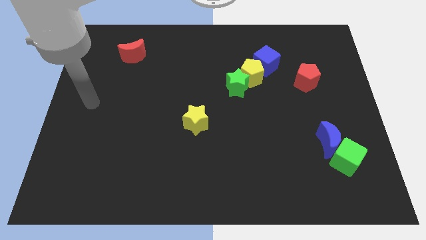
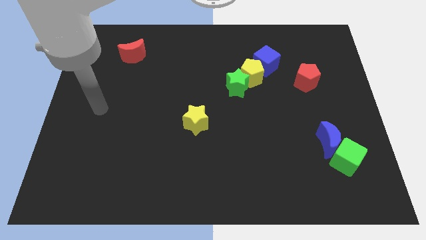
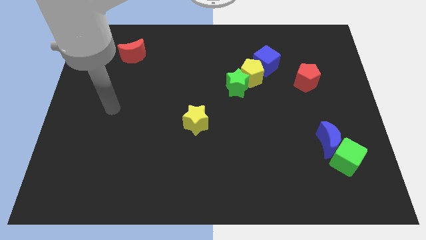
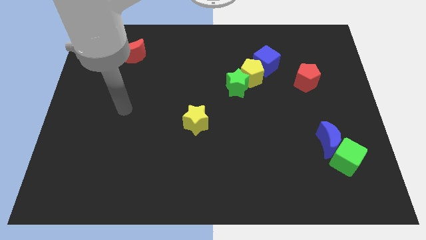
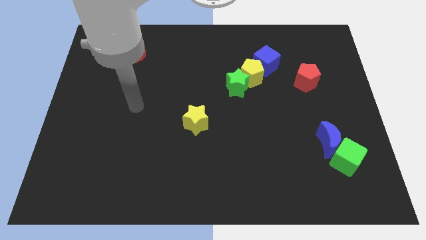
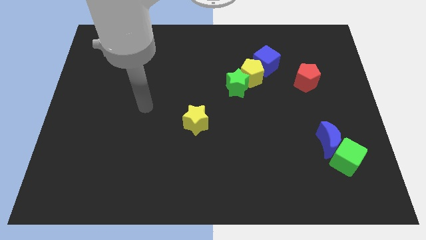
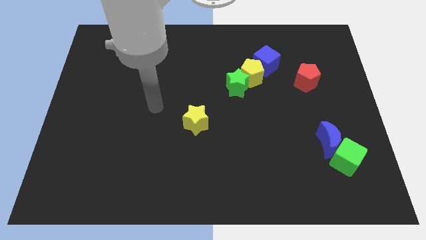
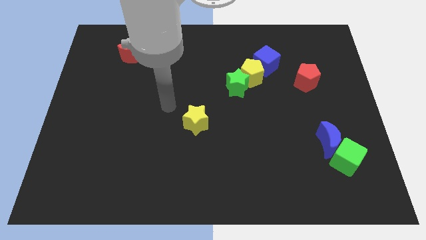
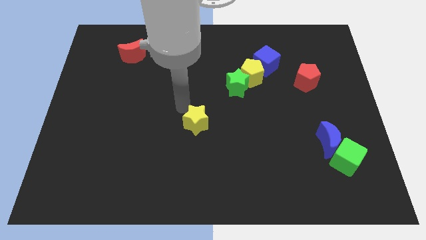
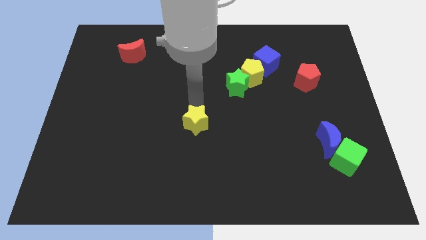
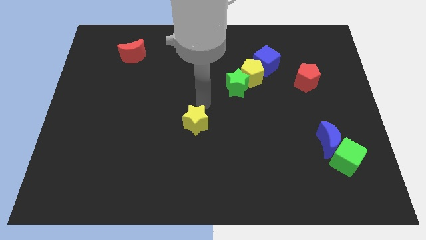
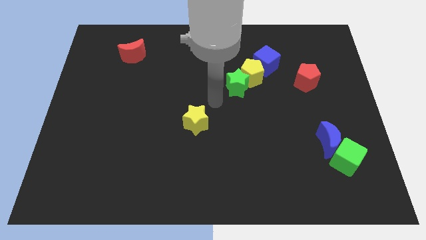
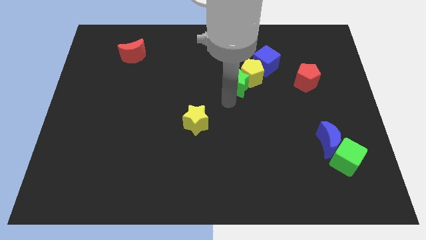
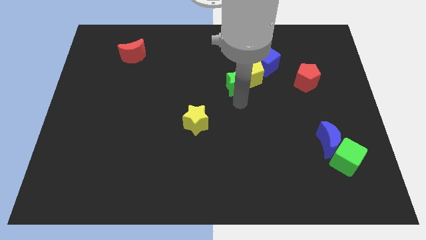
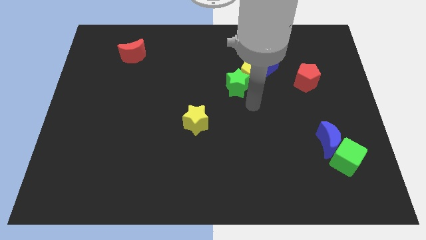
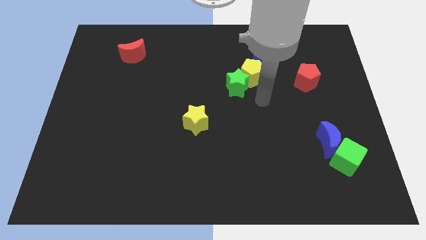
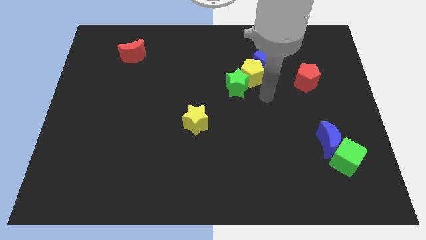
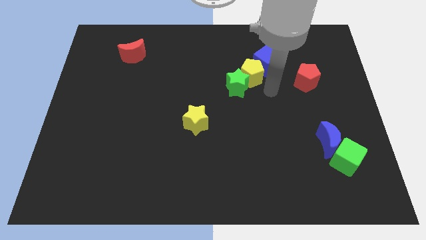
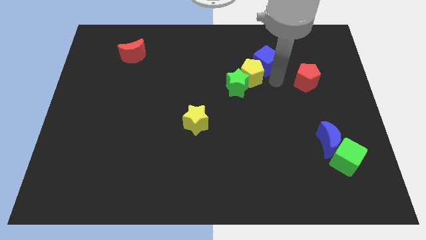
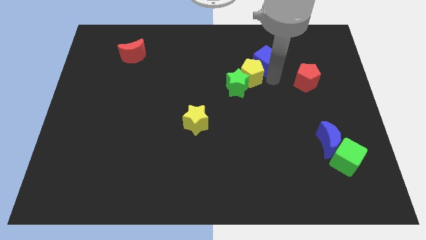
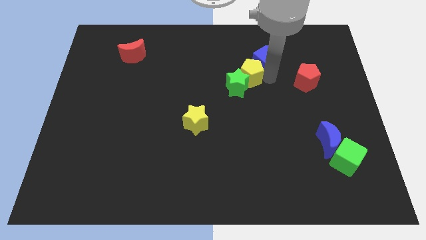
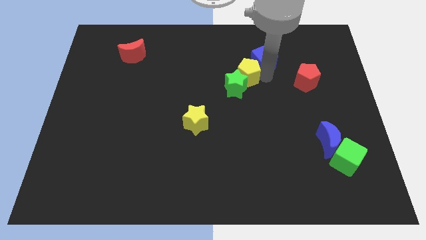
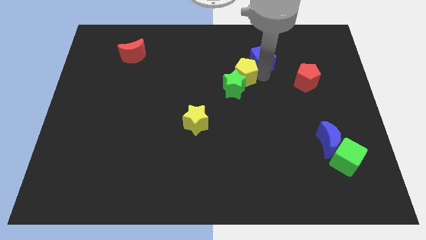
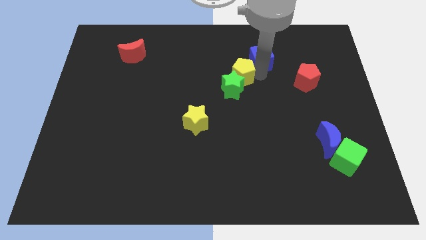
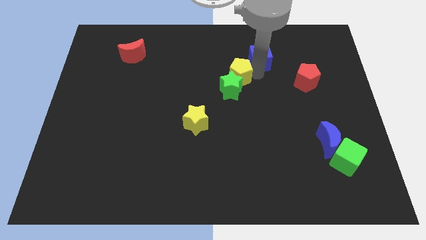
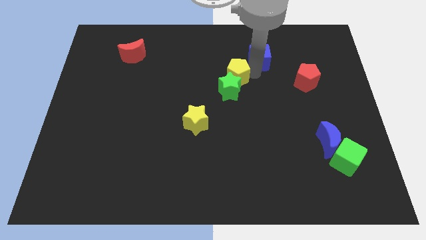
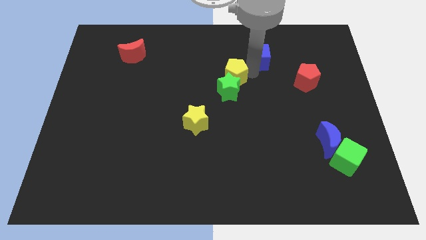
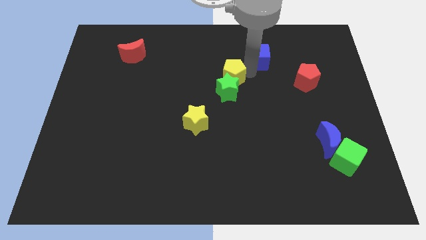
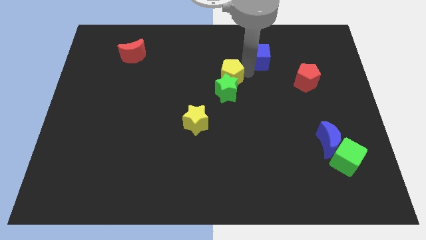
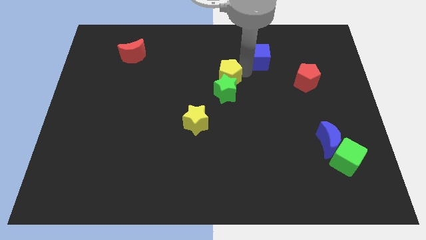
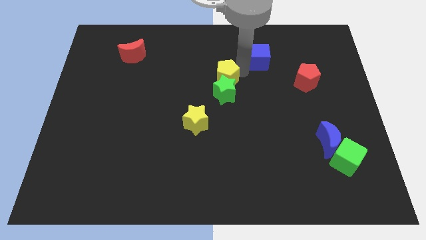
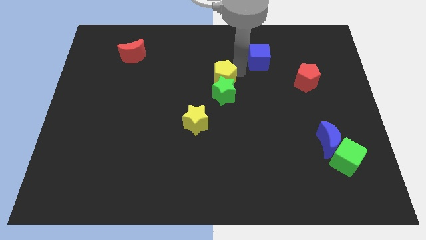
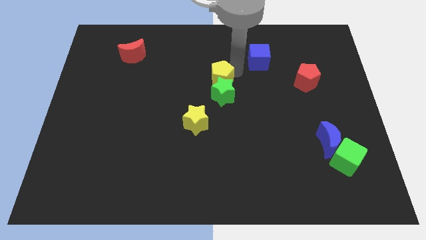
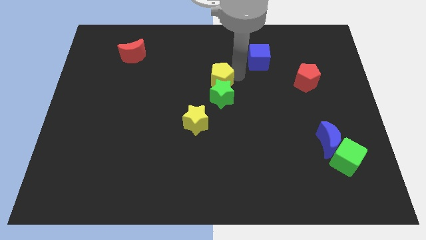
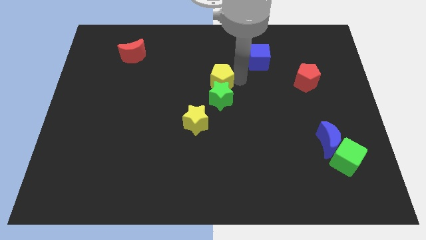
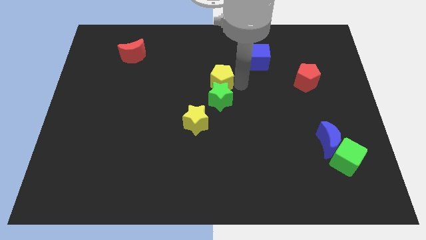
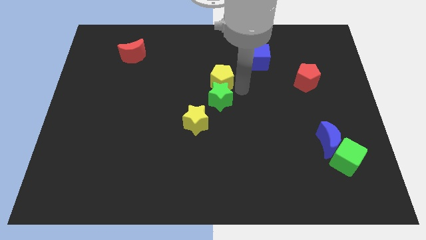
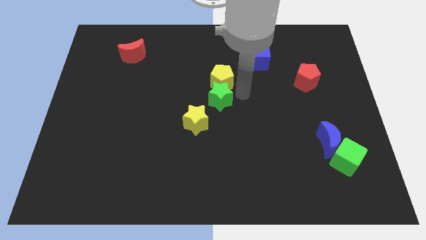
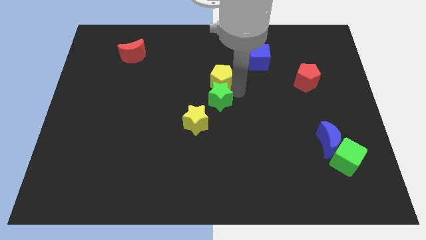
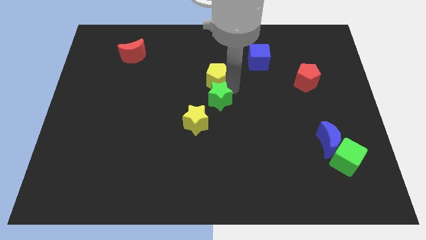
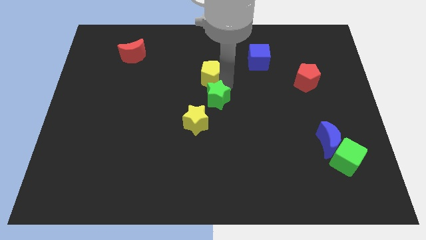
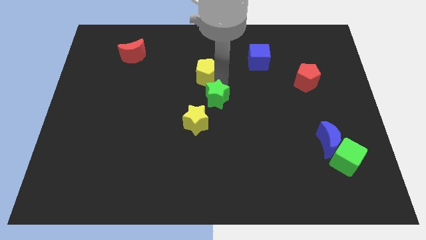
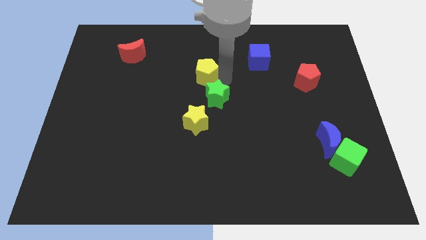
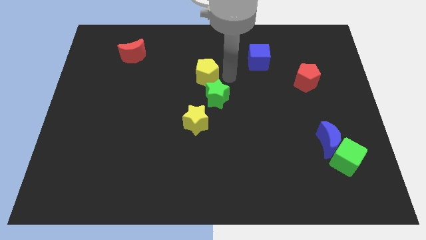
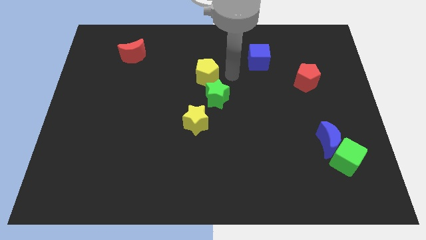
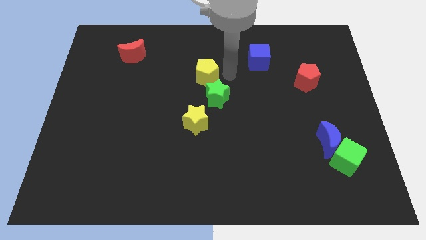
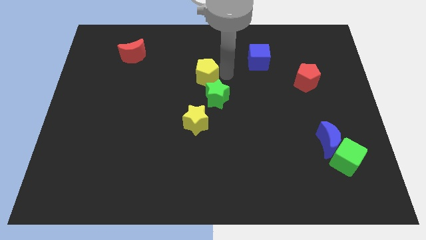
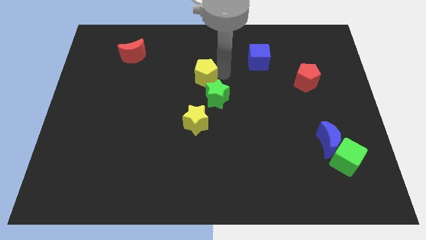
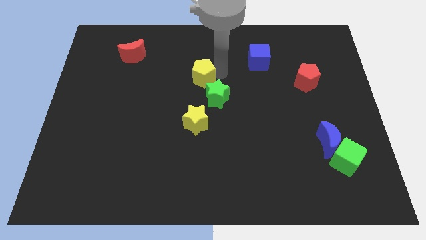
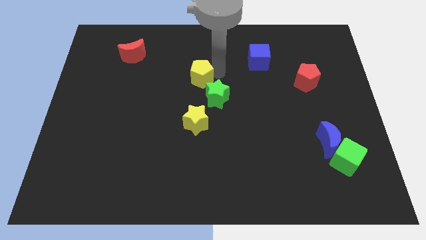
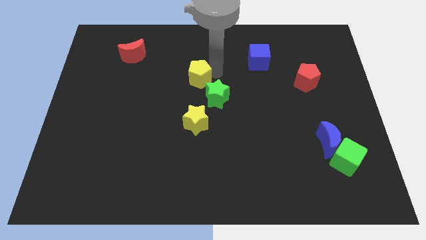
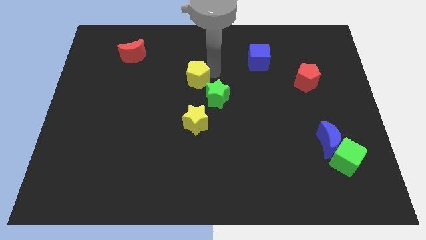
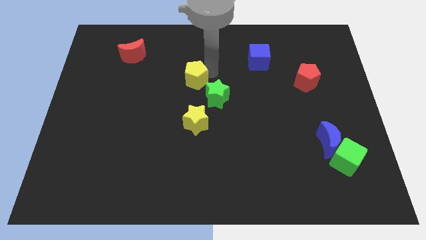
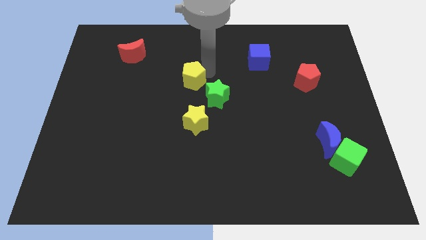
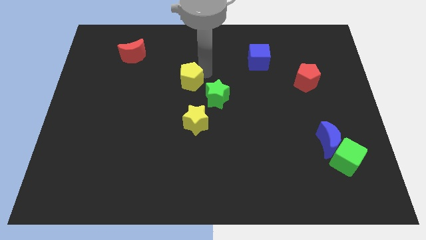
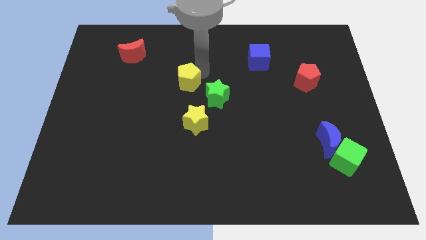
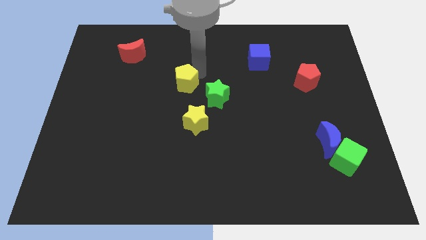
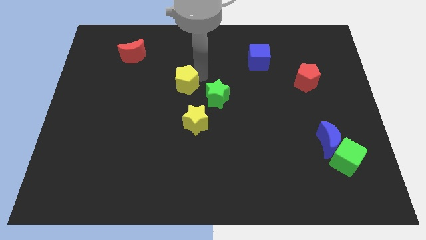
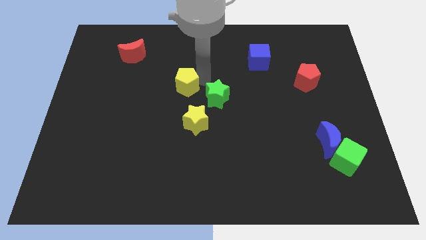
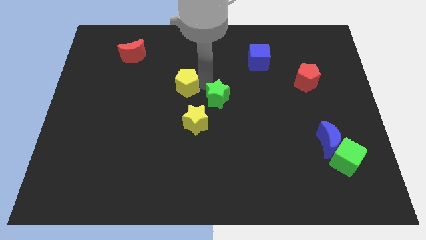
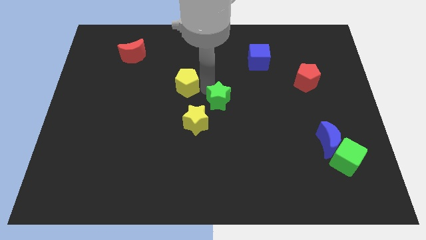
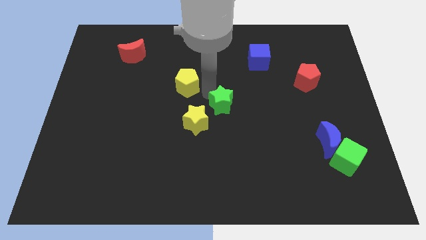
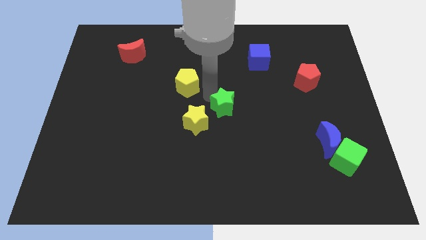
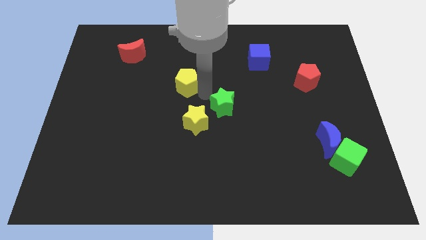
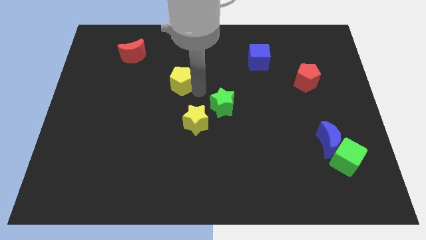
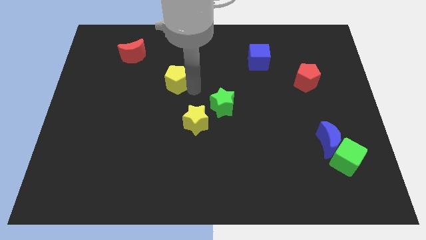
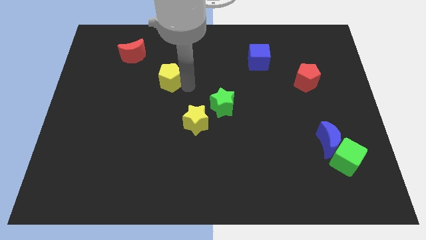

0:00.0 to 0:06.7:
slide the yellow pentagon left

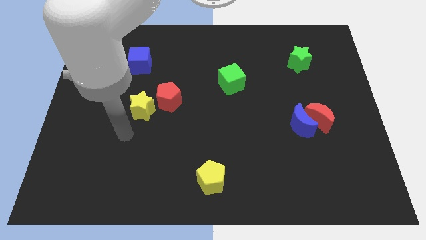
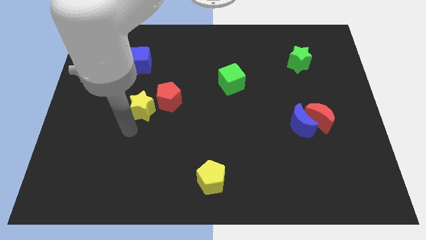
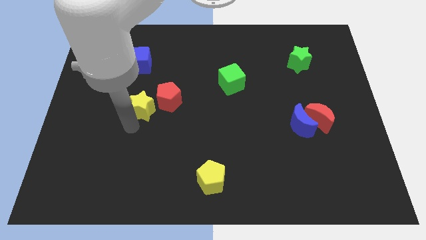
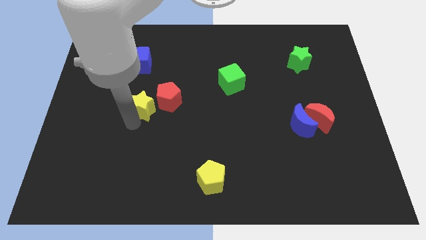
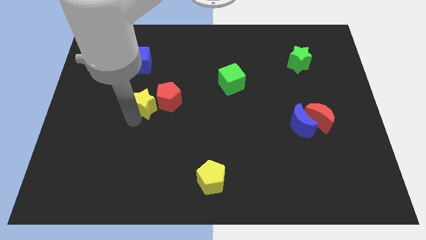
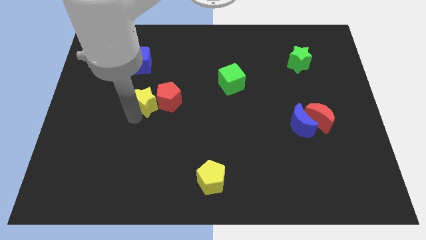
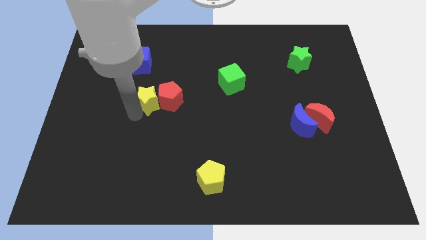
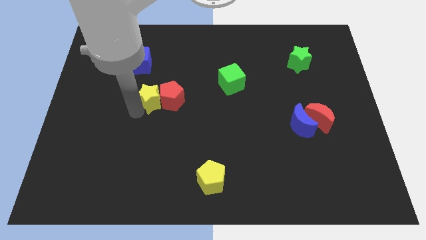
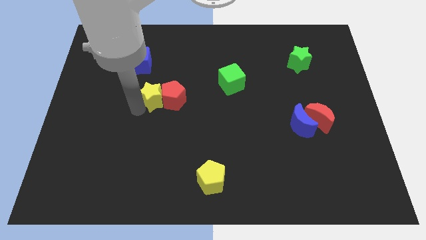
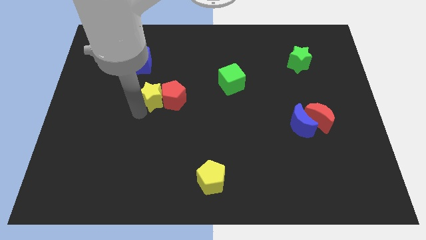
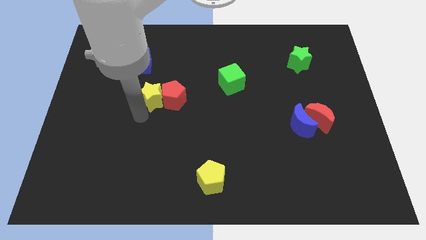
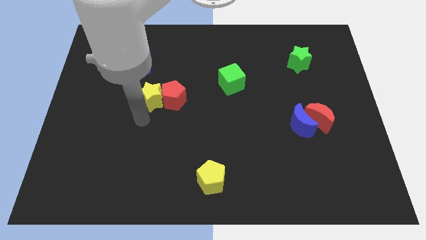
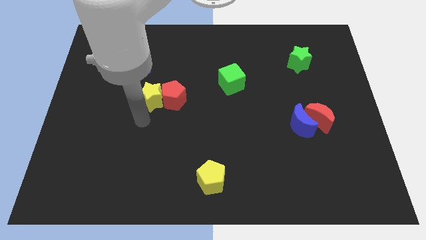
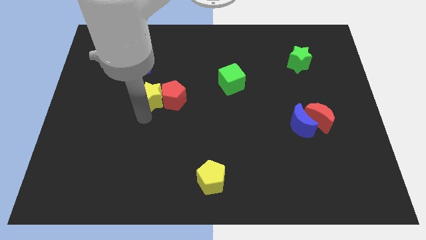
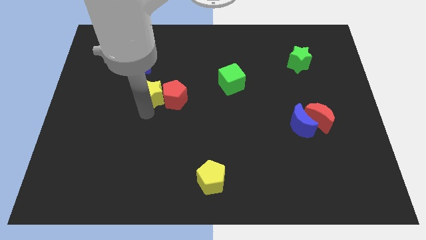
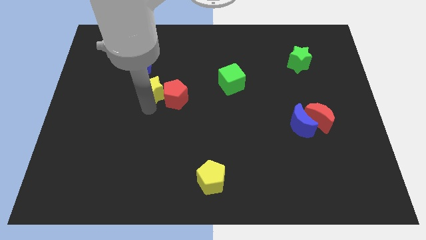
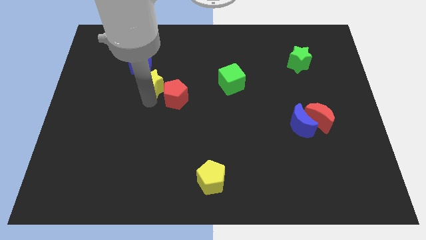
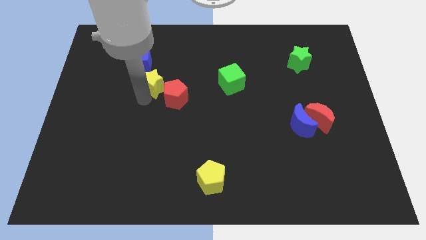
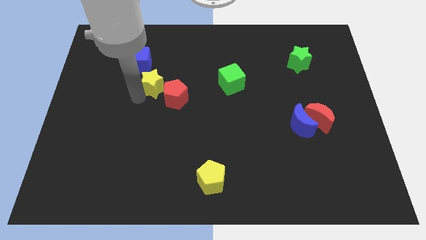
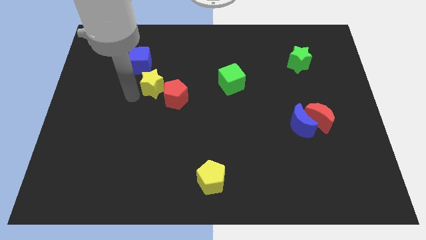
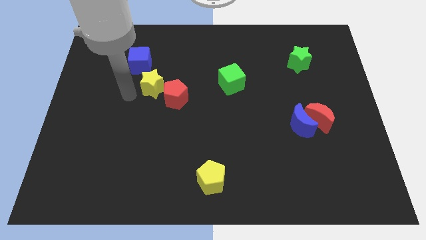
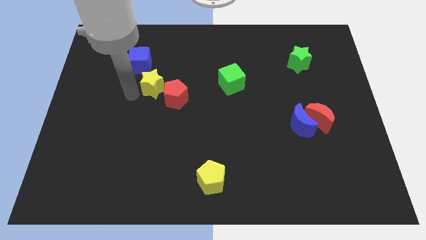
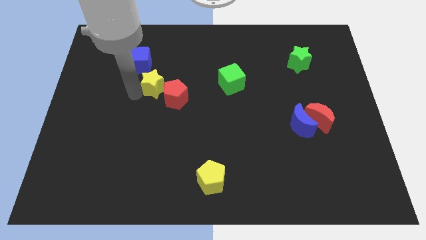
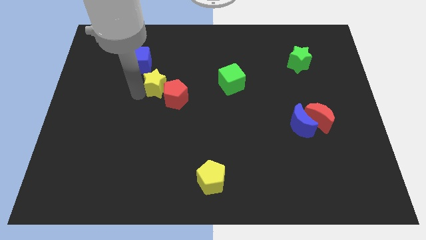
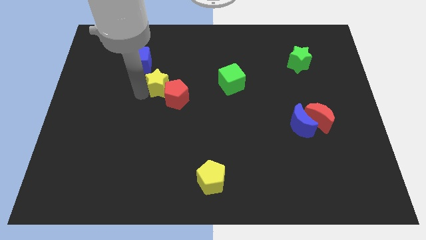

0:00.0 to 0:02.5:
slightly slide the yellow star upwards and then right
